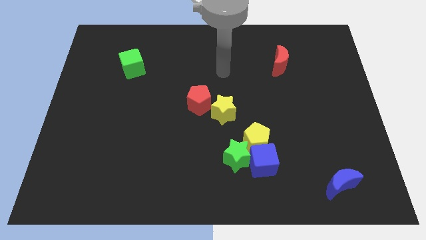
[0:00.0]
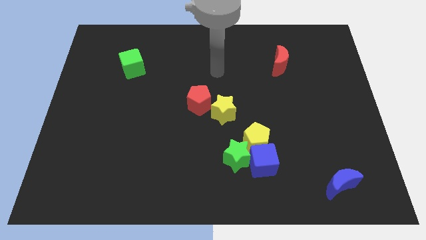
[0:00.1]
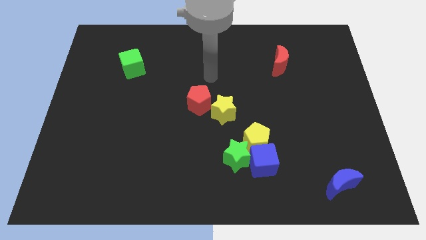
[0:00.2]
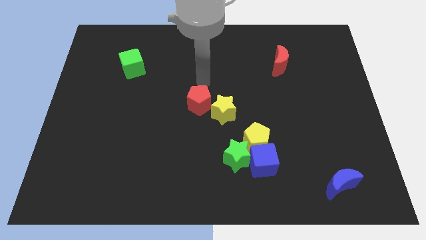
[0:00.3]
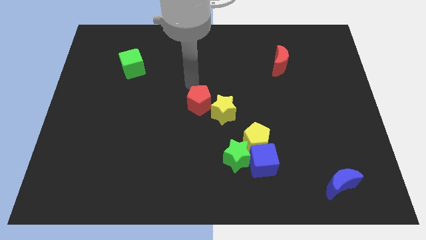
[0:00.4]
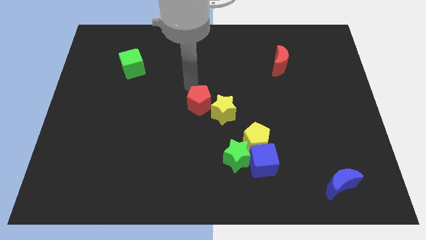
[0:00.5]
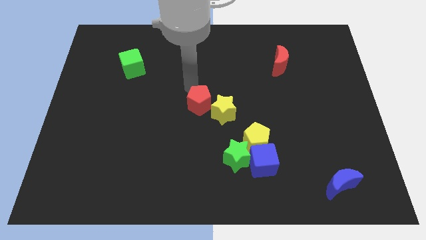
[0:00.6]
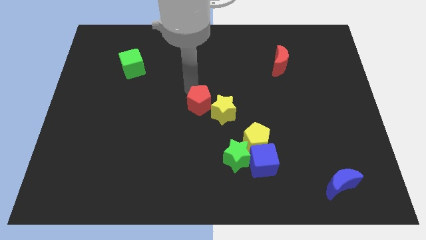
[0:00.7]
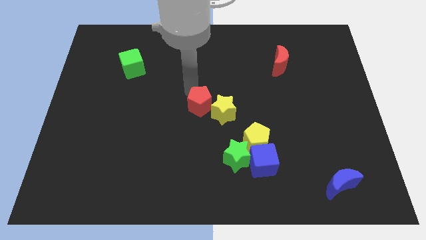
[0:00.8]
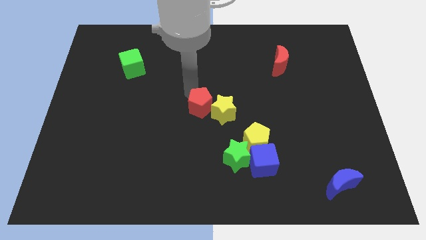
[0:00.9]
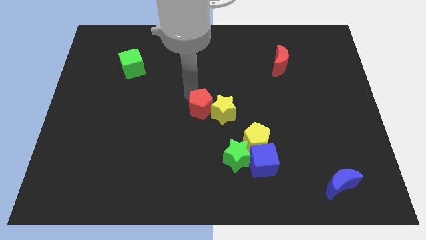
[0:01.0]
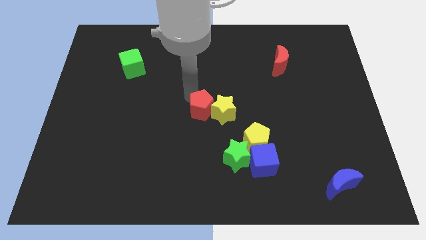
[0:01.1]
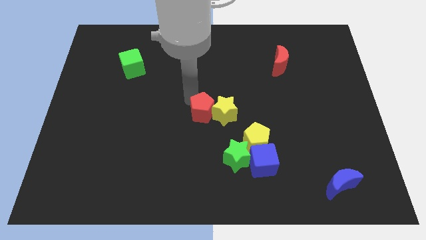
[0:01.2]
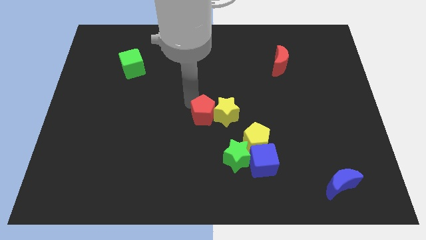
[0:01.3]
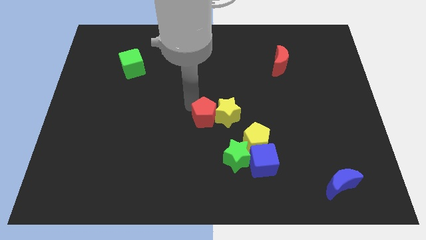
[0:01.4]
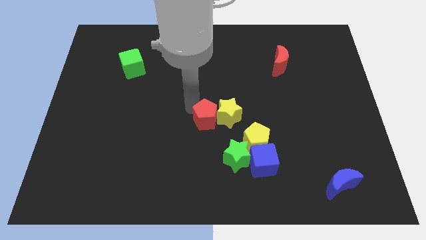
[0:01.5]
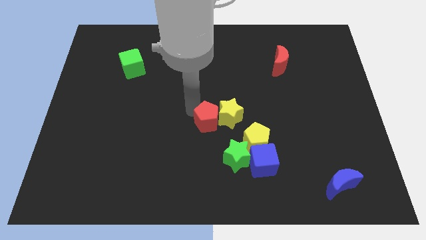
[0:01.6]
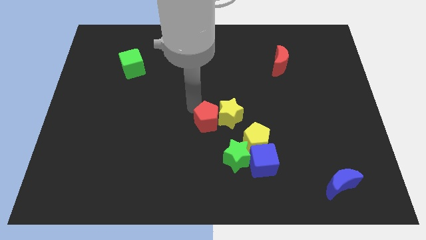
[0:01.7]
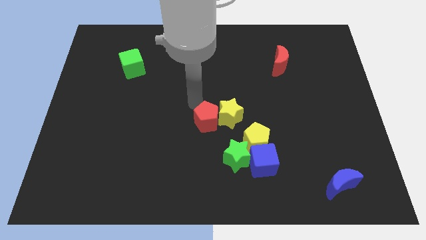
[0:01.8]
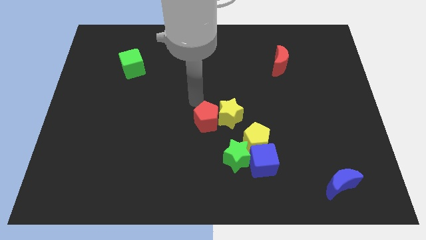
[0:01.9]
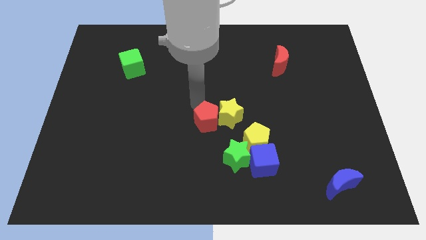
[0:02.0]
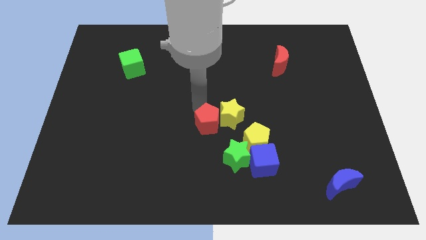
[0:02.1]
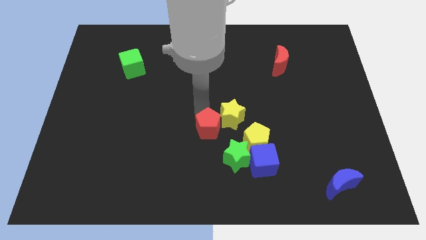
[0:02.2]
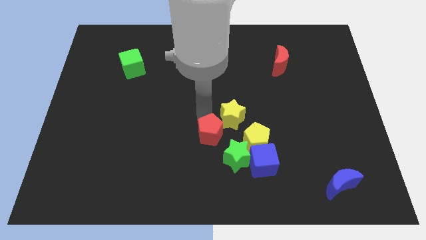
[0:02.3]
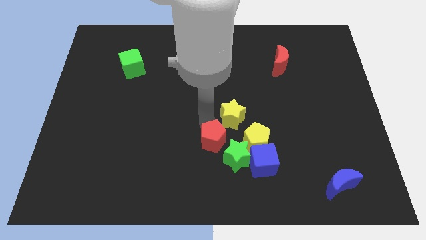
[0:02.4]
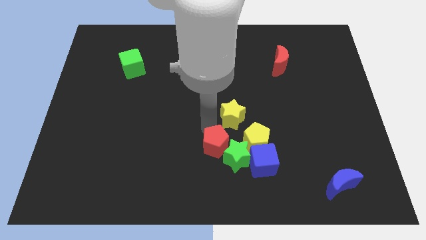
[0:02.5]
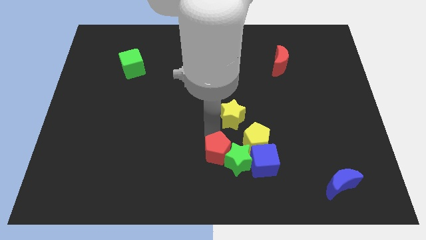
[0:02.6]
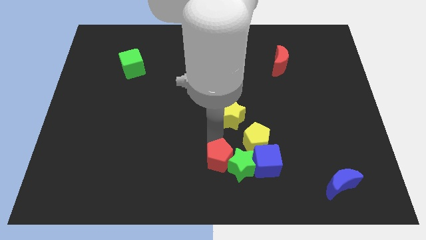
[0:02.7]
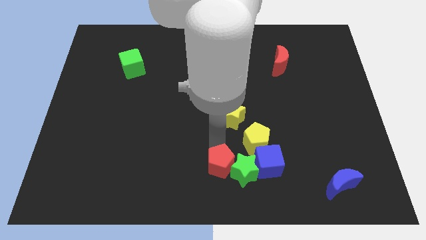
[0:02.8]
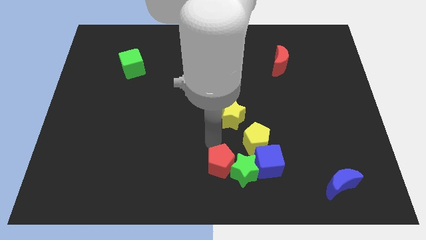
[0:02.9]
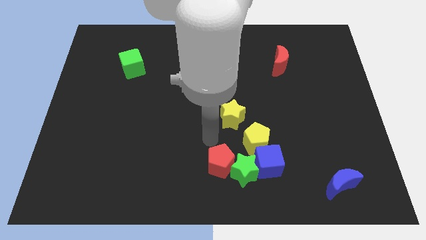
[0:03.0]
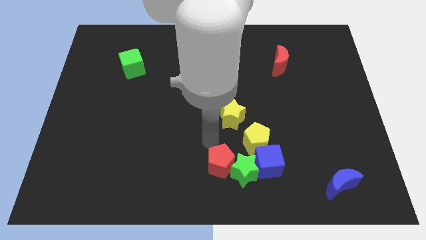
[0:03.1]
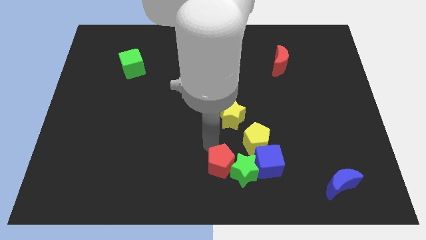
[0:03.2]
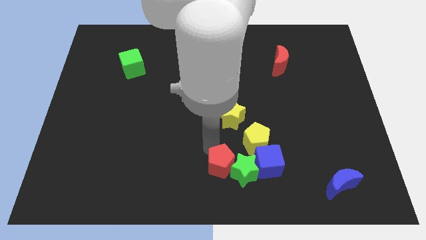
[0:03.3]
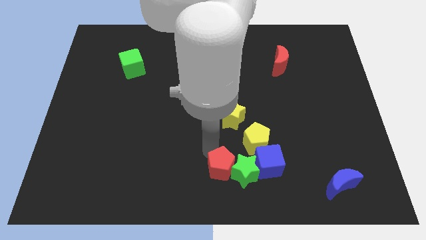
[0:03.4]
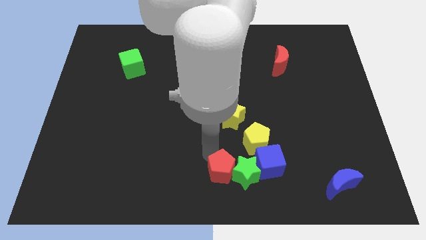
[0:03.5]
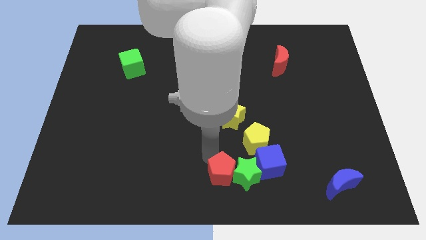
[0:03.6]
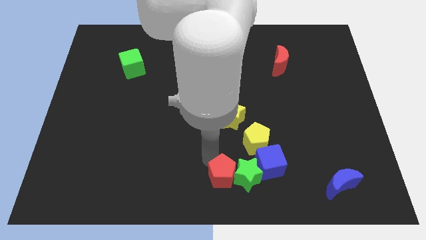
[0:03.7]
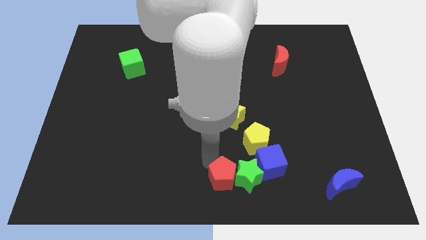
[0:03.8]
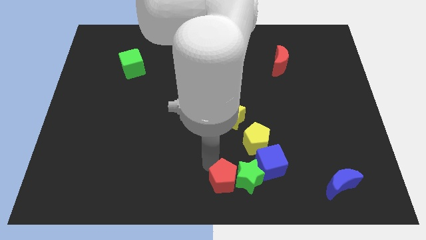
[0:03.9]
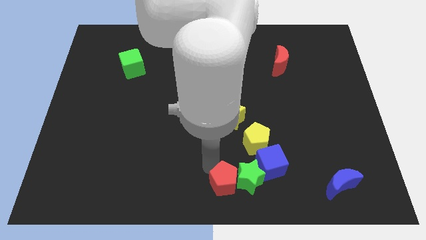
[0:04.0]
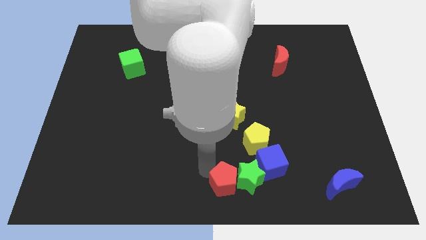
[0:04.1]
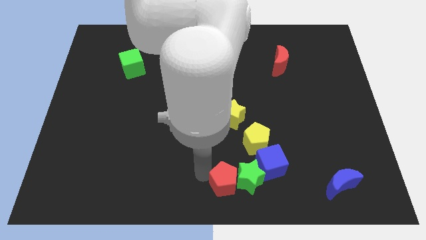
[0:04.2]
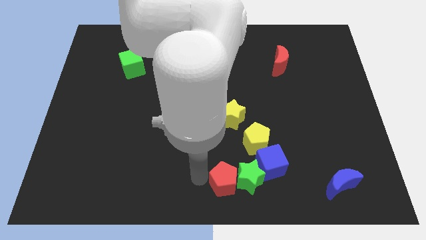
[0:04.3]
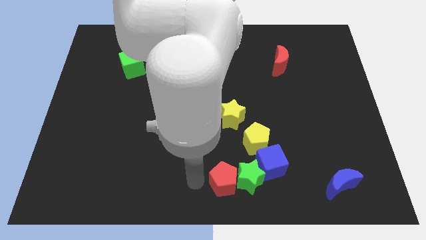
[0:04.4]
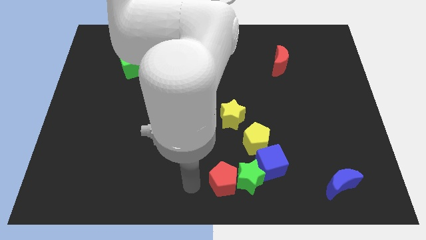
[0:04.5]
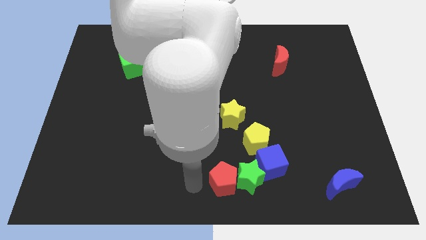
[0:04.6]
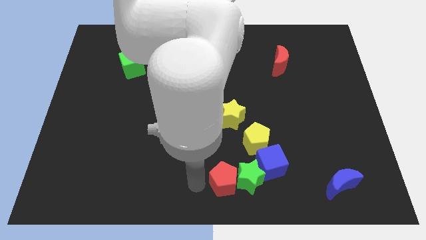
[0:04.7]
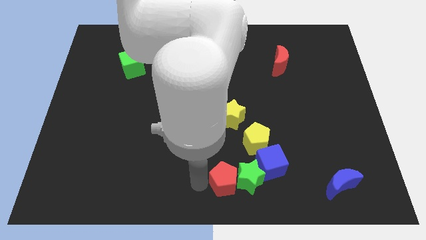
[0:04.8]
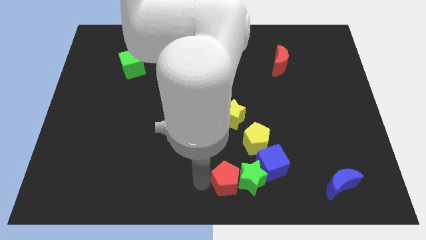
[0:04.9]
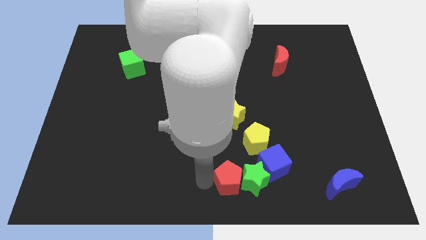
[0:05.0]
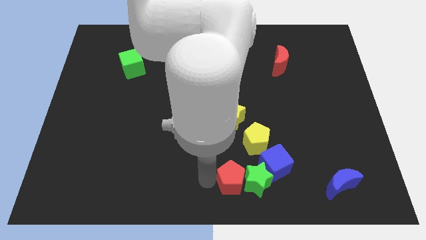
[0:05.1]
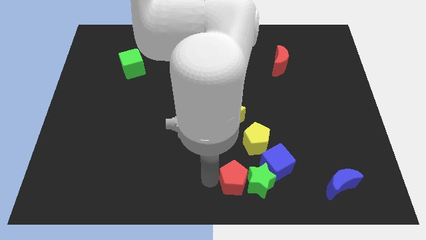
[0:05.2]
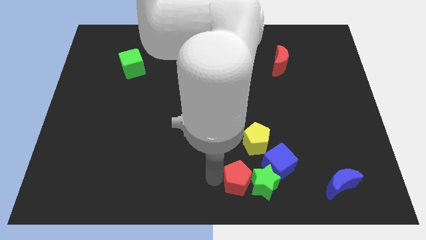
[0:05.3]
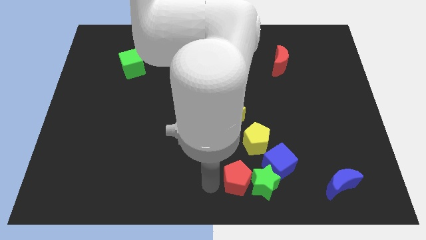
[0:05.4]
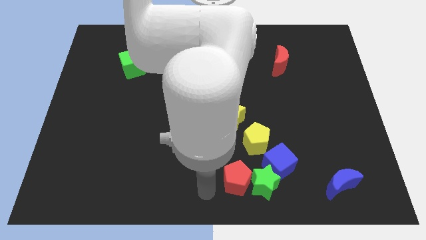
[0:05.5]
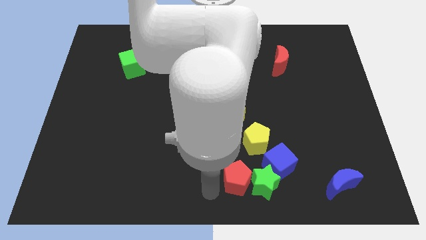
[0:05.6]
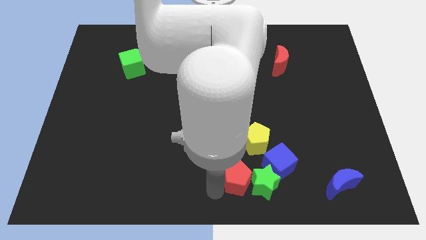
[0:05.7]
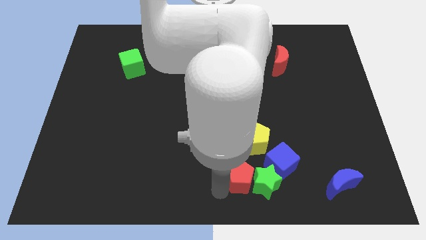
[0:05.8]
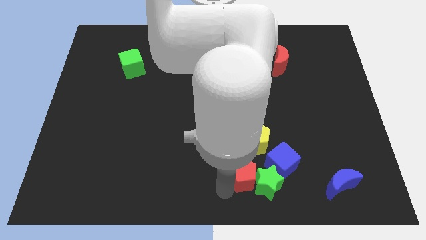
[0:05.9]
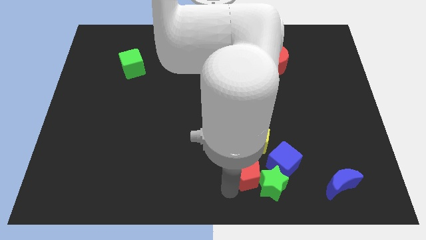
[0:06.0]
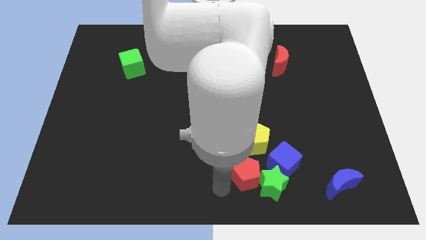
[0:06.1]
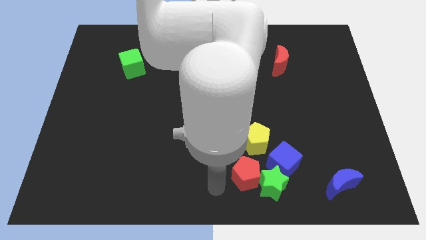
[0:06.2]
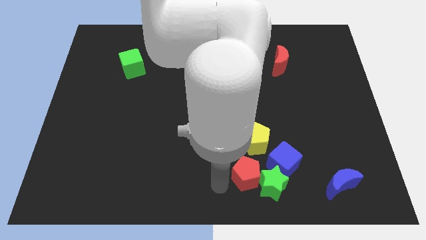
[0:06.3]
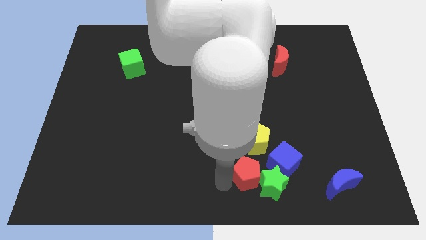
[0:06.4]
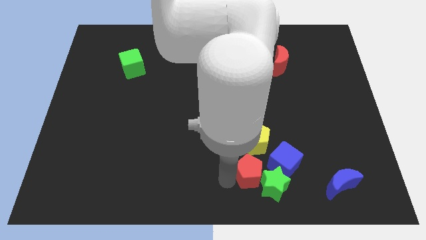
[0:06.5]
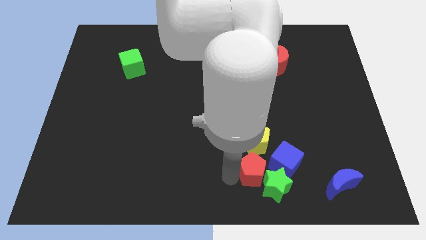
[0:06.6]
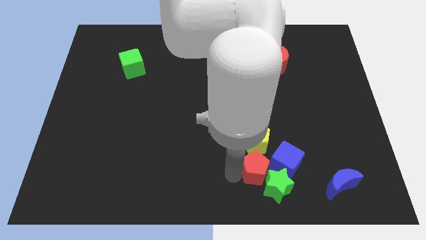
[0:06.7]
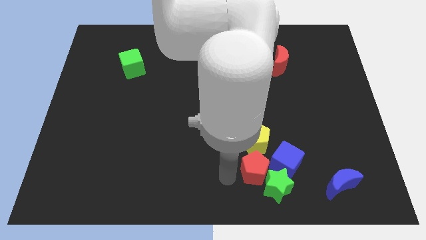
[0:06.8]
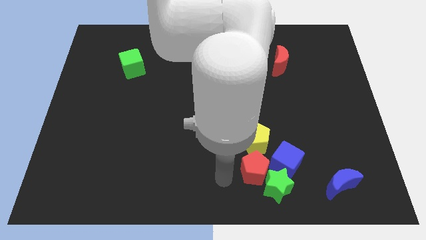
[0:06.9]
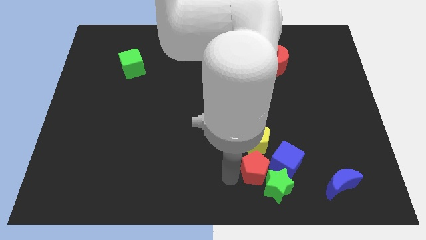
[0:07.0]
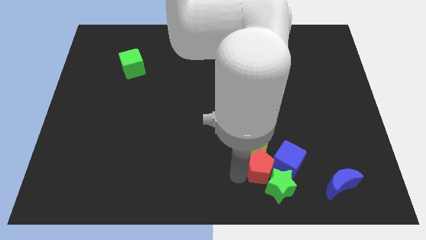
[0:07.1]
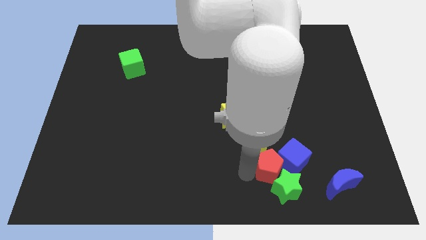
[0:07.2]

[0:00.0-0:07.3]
put the red pentagon towards the blue cube
